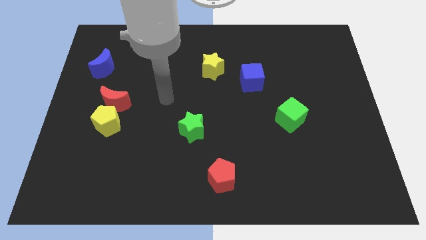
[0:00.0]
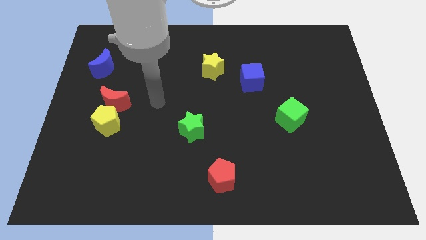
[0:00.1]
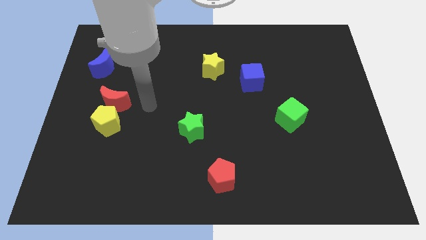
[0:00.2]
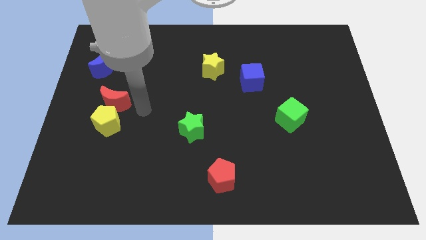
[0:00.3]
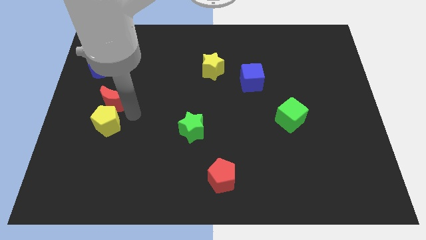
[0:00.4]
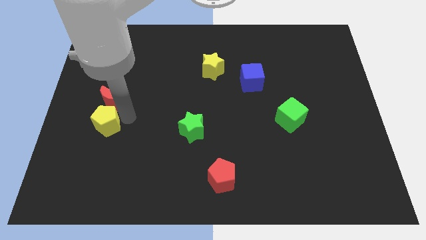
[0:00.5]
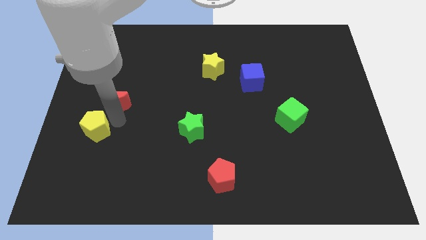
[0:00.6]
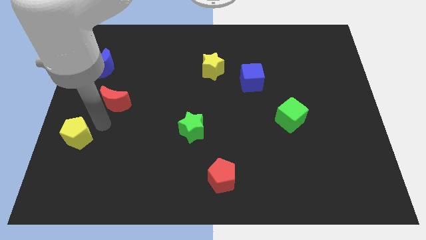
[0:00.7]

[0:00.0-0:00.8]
move the red moon away from the yellow pentagon

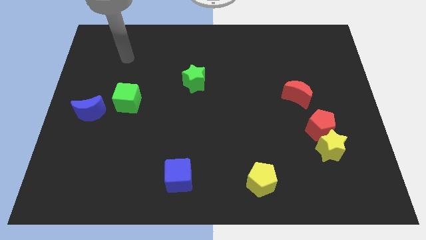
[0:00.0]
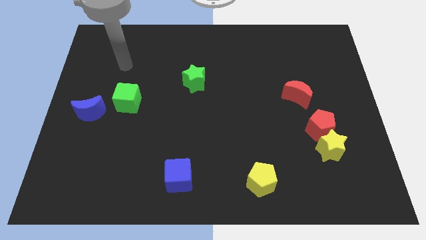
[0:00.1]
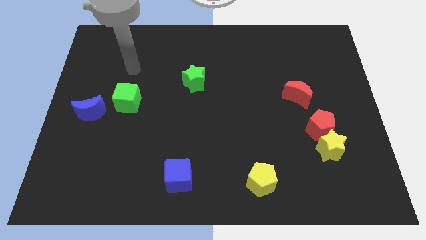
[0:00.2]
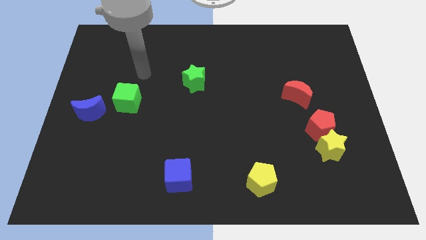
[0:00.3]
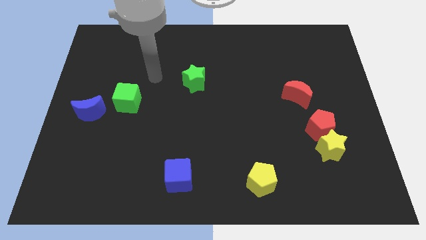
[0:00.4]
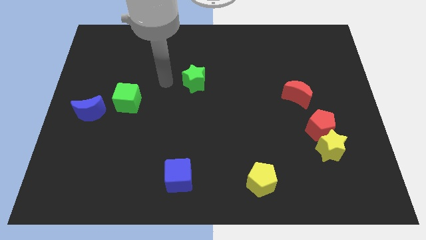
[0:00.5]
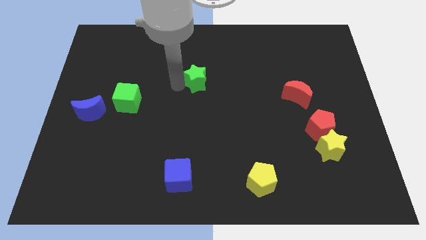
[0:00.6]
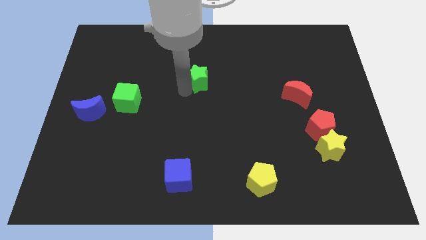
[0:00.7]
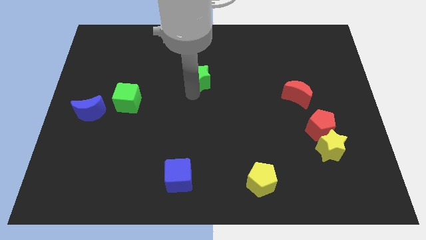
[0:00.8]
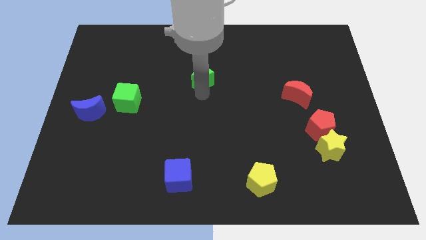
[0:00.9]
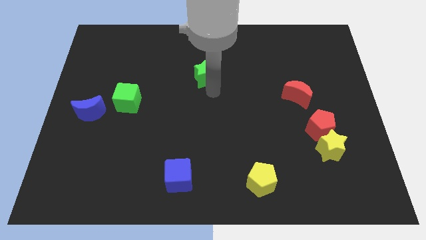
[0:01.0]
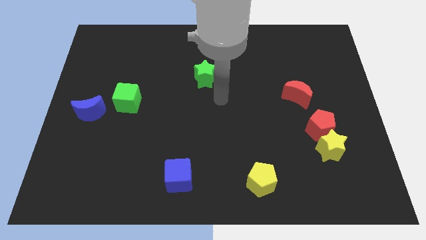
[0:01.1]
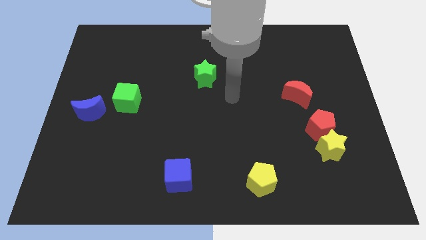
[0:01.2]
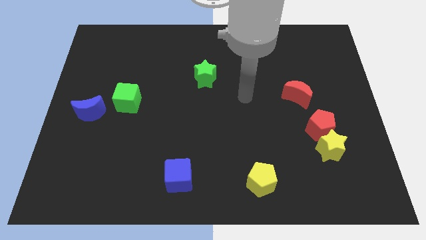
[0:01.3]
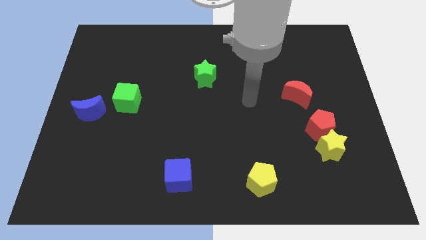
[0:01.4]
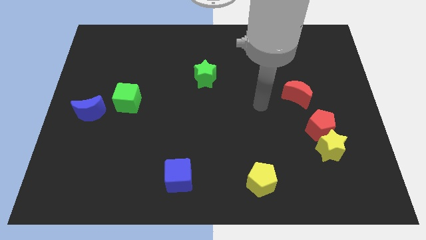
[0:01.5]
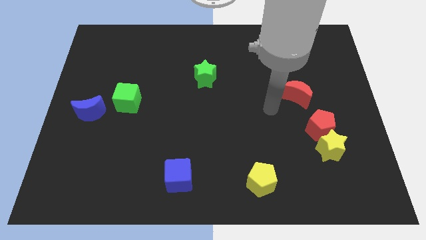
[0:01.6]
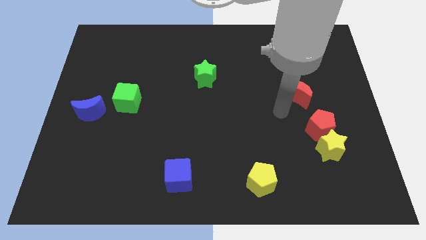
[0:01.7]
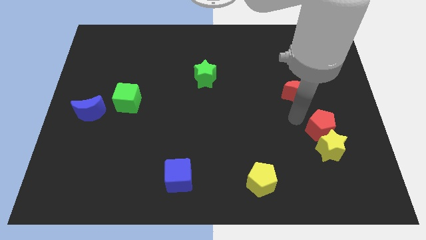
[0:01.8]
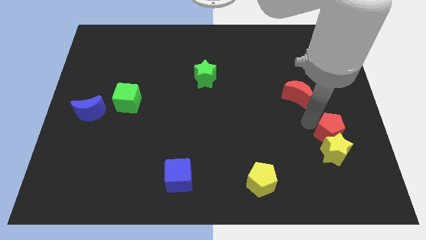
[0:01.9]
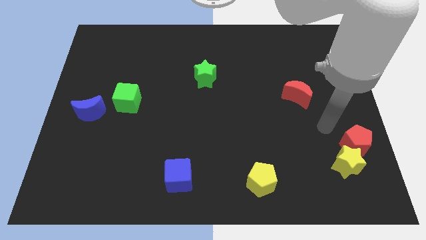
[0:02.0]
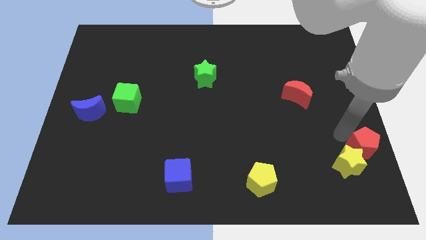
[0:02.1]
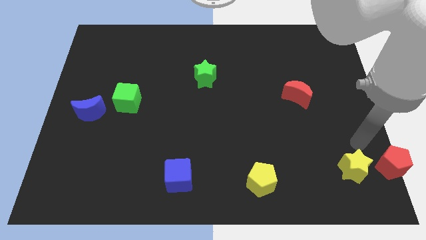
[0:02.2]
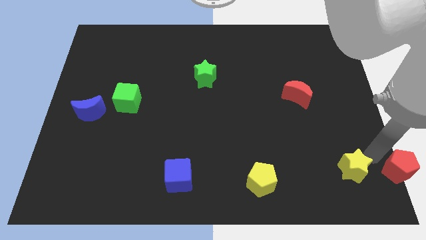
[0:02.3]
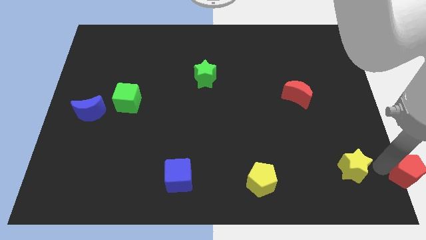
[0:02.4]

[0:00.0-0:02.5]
pull the yellow star apart from the red pentagon

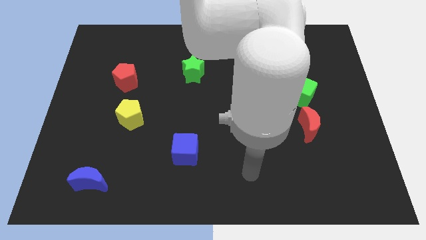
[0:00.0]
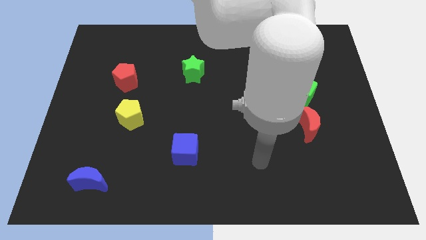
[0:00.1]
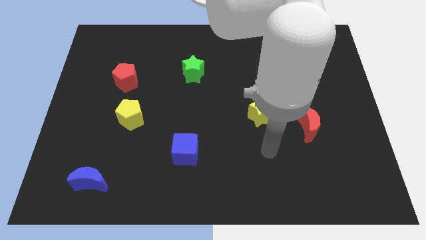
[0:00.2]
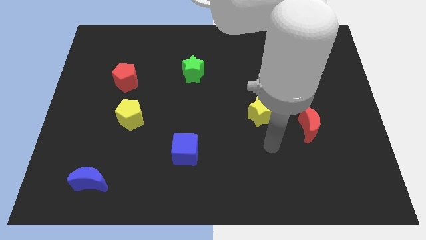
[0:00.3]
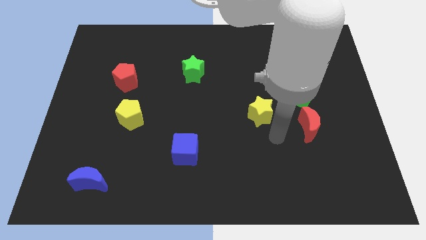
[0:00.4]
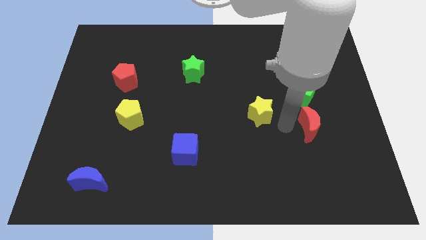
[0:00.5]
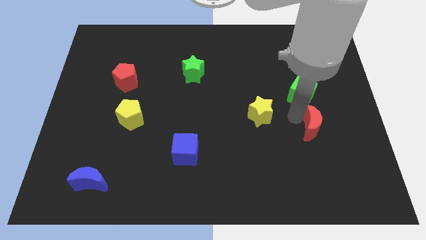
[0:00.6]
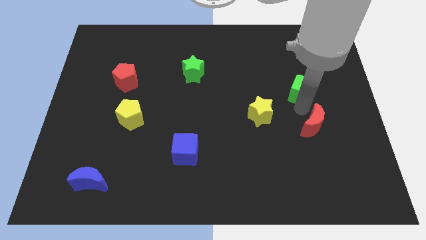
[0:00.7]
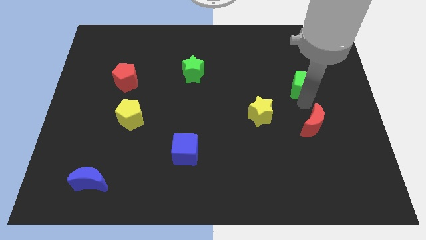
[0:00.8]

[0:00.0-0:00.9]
separate the red moon from the green cube

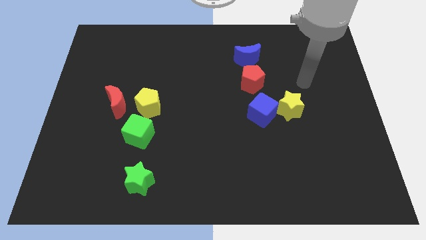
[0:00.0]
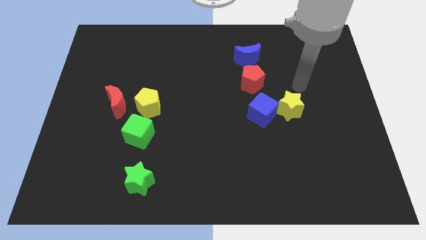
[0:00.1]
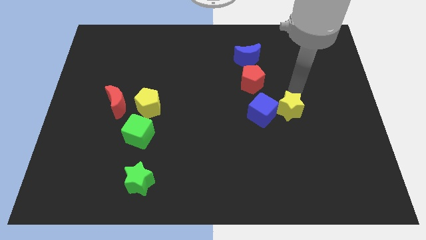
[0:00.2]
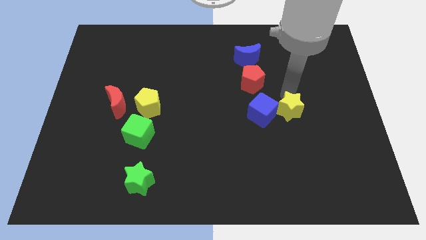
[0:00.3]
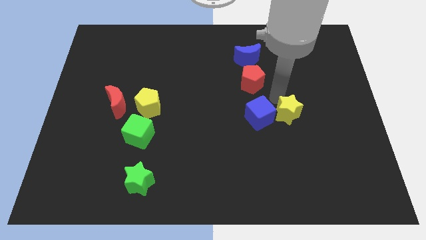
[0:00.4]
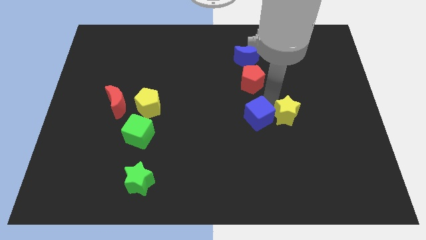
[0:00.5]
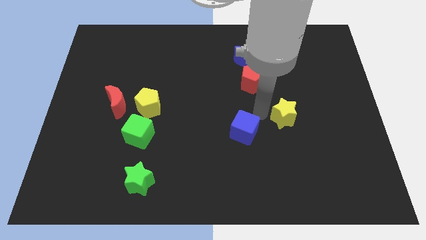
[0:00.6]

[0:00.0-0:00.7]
separate the yellow star from the blue cube

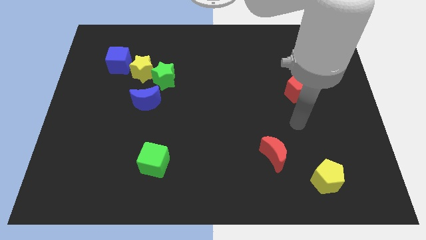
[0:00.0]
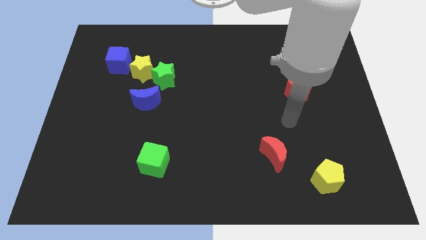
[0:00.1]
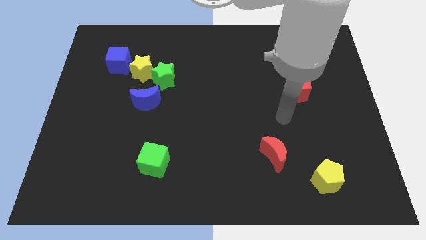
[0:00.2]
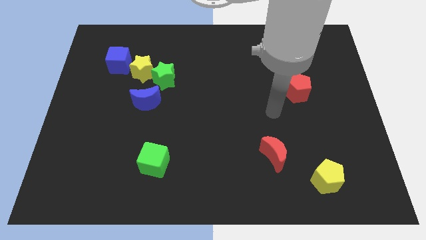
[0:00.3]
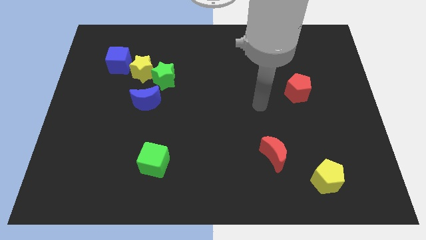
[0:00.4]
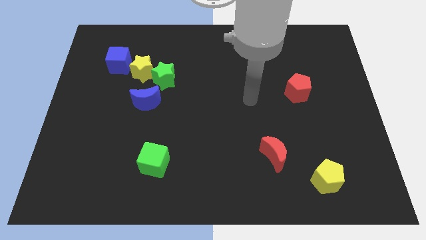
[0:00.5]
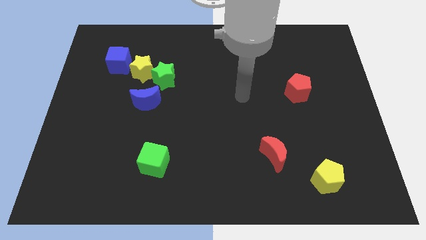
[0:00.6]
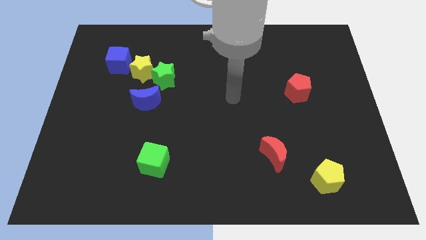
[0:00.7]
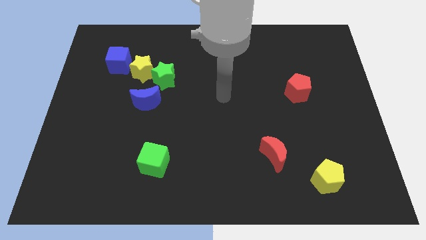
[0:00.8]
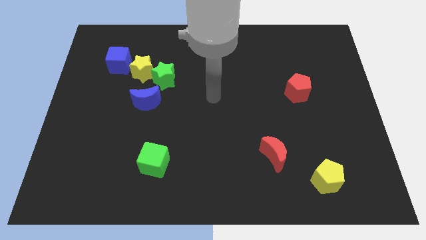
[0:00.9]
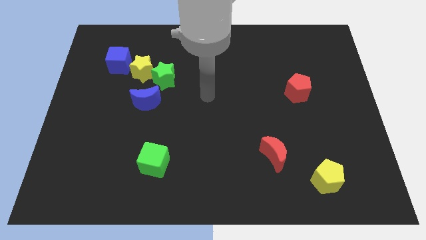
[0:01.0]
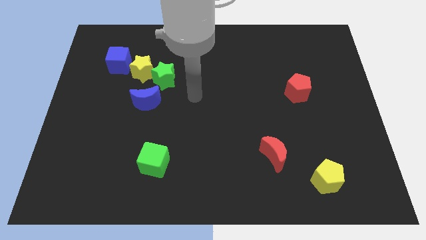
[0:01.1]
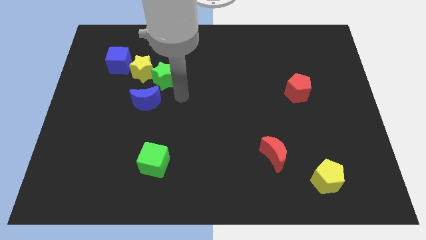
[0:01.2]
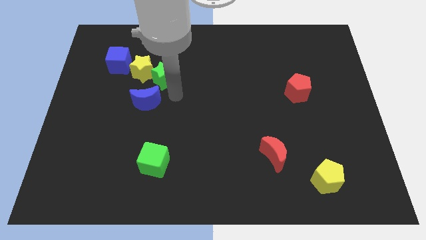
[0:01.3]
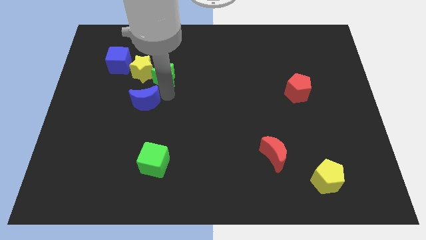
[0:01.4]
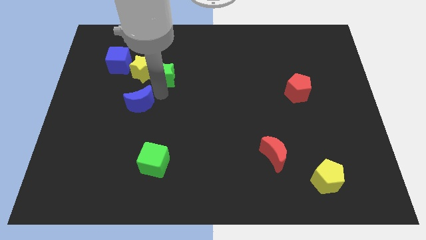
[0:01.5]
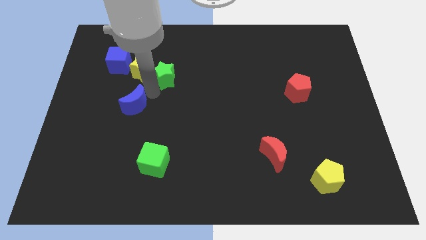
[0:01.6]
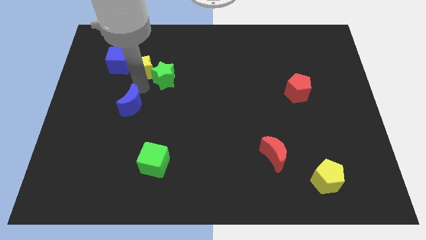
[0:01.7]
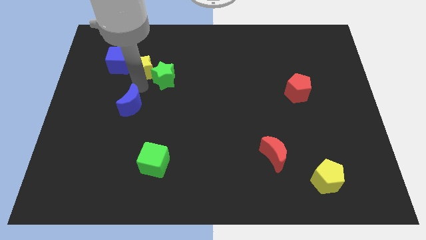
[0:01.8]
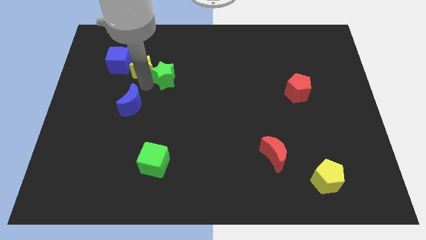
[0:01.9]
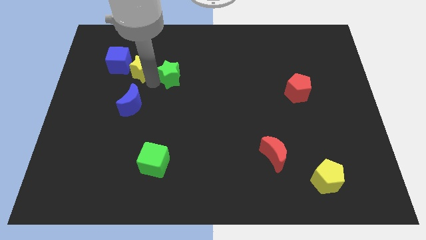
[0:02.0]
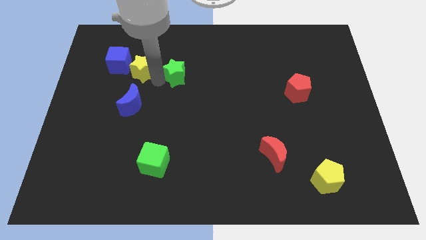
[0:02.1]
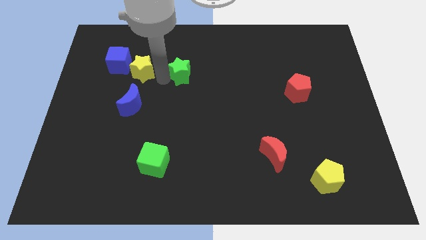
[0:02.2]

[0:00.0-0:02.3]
separate the green star from the yellow star and blue moon

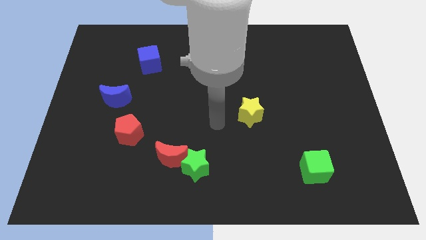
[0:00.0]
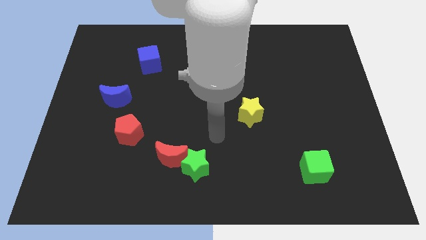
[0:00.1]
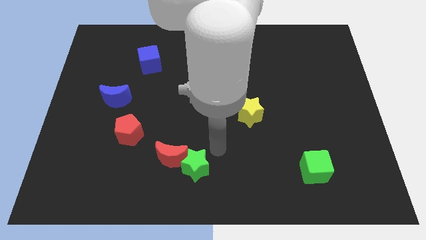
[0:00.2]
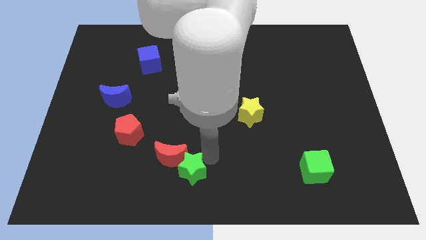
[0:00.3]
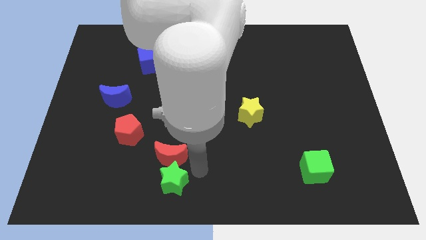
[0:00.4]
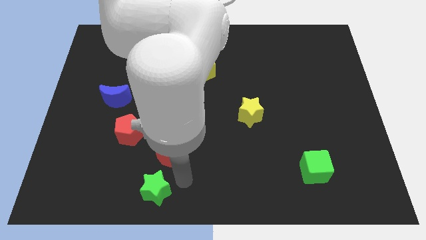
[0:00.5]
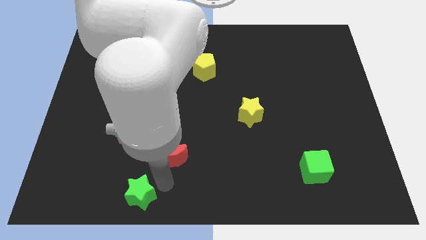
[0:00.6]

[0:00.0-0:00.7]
move the red moon away from the green star

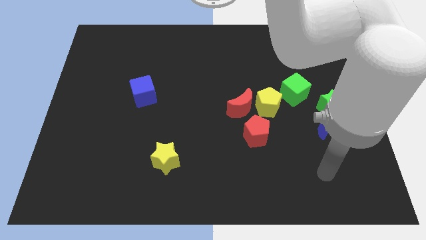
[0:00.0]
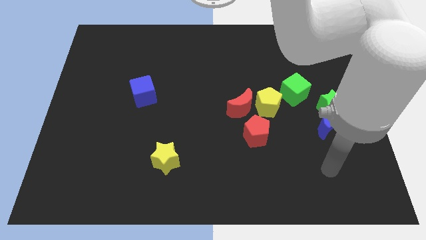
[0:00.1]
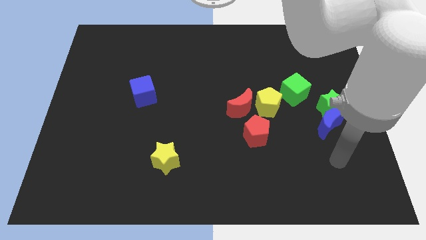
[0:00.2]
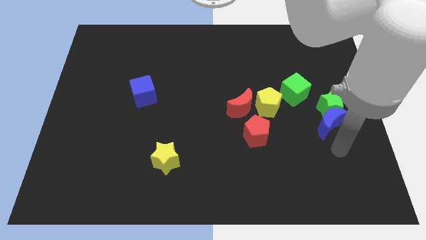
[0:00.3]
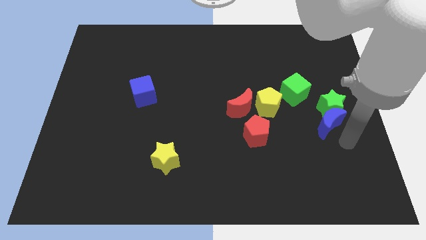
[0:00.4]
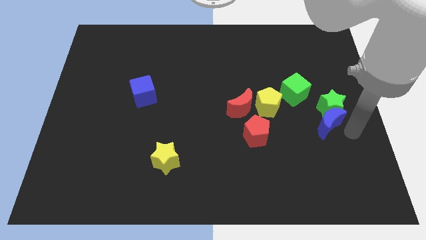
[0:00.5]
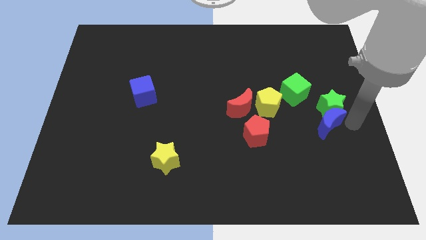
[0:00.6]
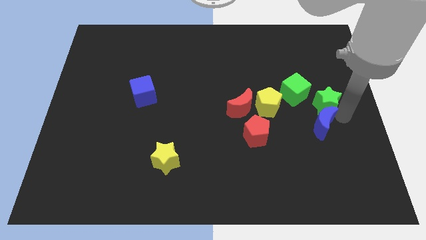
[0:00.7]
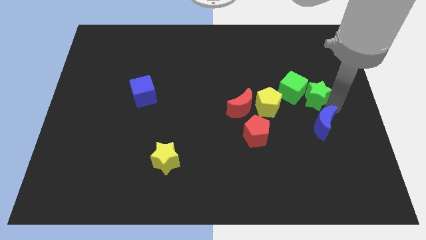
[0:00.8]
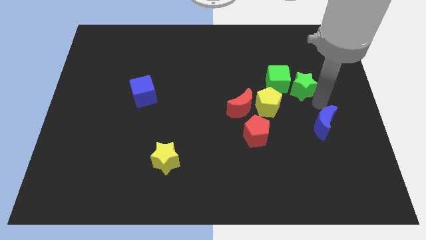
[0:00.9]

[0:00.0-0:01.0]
move the blue moon away from the green star

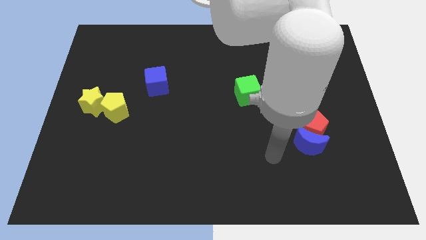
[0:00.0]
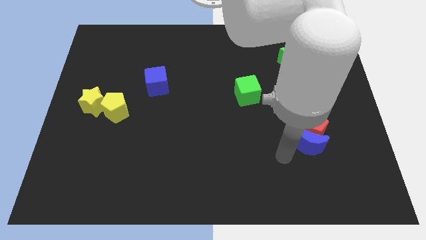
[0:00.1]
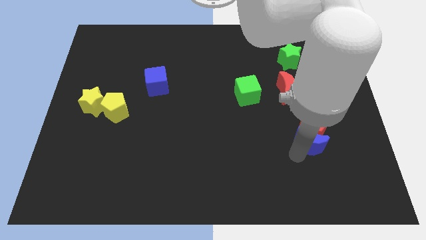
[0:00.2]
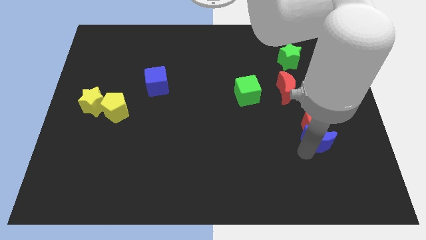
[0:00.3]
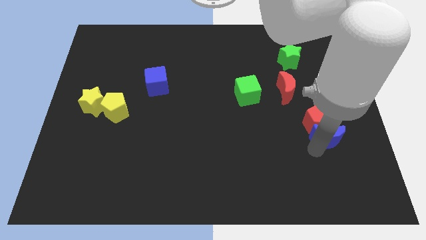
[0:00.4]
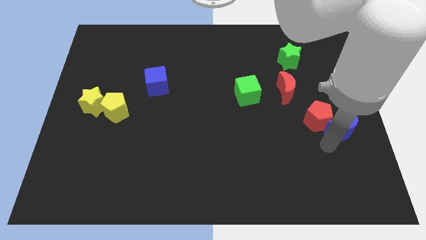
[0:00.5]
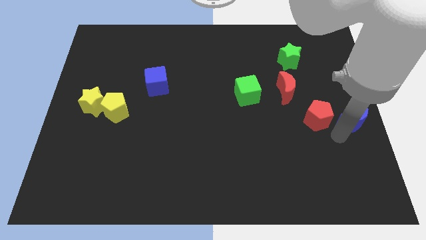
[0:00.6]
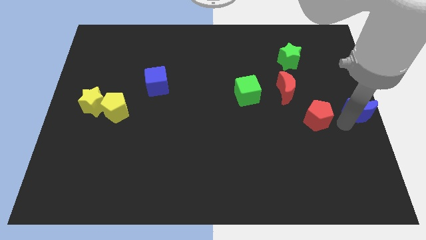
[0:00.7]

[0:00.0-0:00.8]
pull the red pentagon apart from the blue moon
